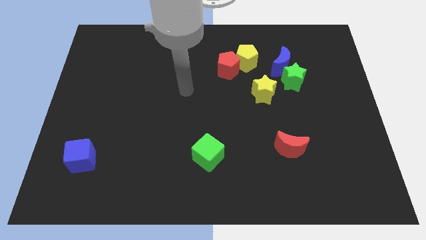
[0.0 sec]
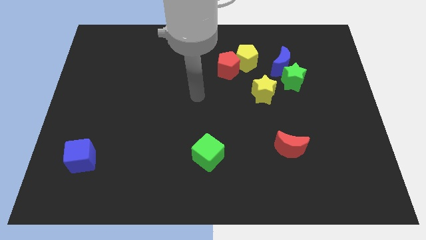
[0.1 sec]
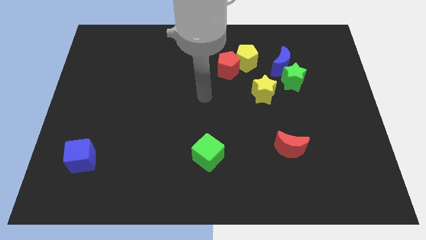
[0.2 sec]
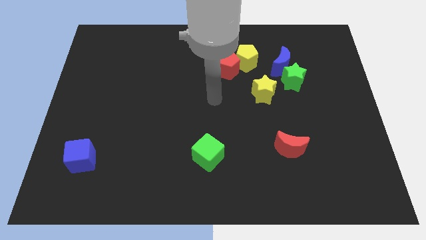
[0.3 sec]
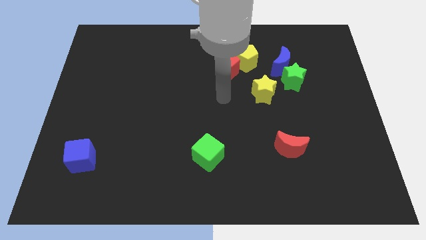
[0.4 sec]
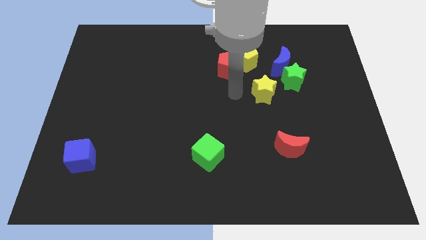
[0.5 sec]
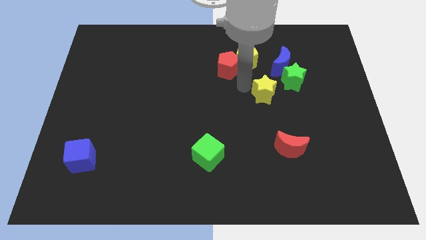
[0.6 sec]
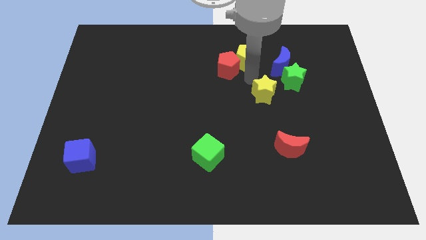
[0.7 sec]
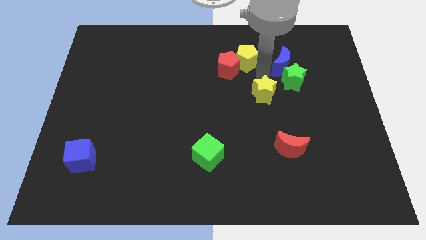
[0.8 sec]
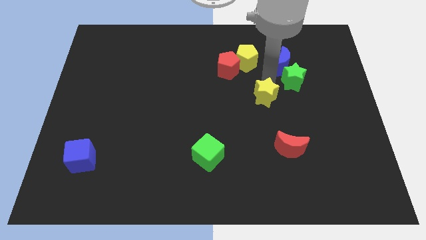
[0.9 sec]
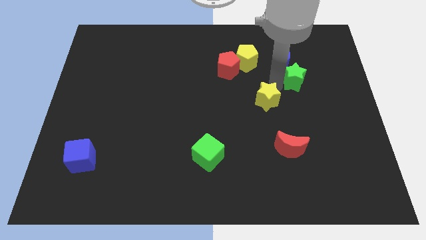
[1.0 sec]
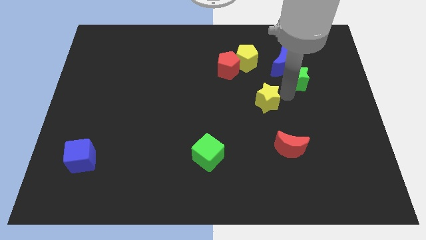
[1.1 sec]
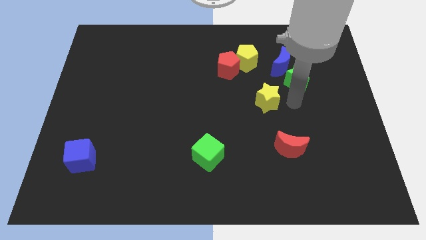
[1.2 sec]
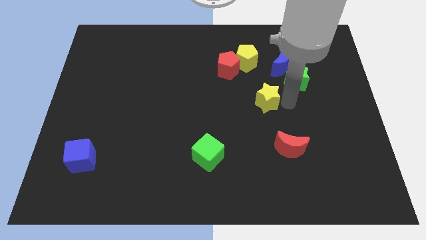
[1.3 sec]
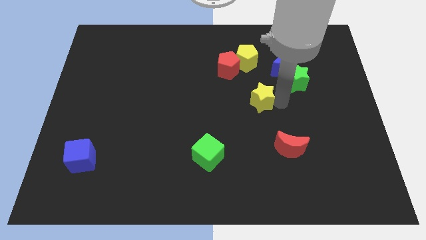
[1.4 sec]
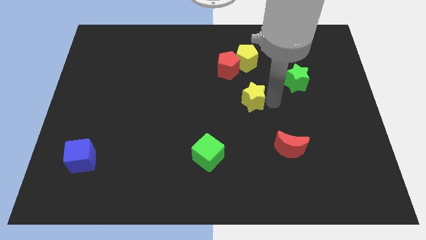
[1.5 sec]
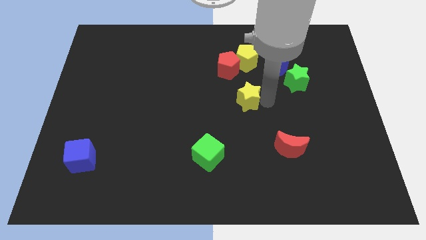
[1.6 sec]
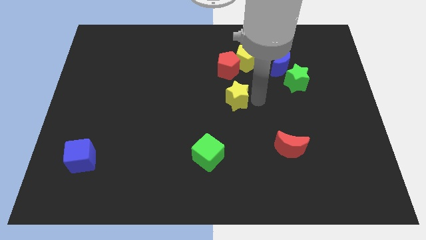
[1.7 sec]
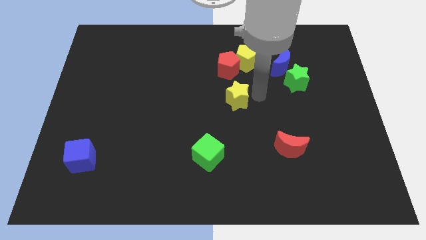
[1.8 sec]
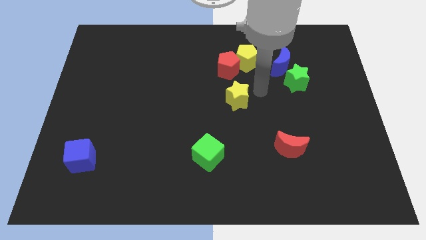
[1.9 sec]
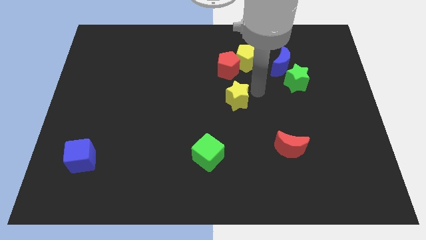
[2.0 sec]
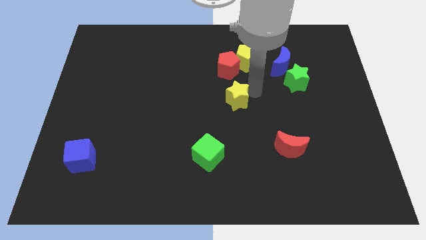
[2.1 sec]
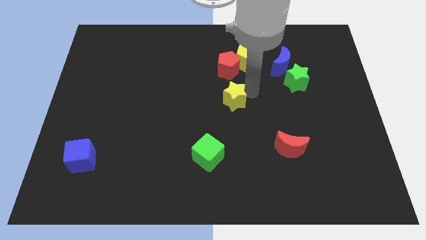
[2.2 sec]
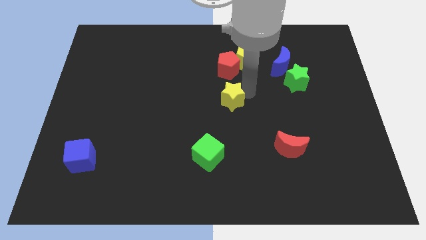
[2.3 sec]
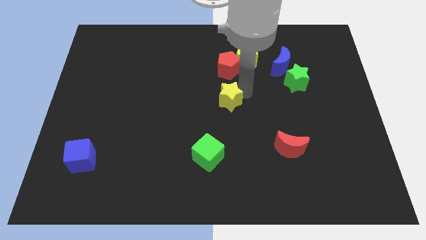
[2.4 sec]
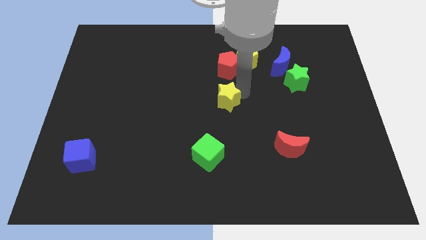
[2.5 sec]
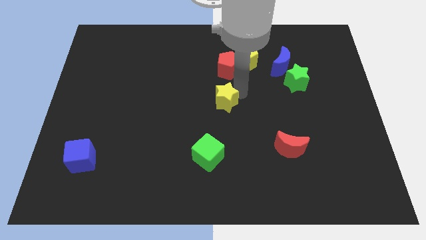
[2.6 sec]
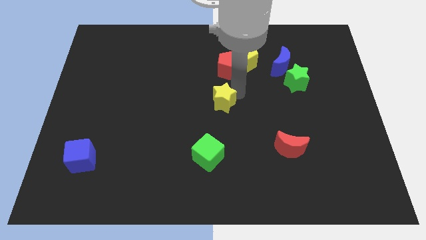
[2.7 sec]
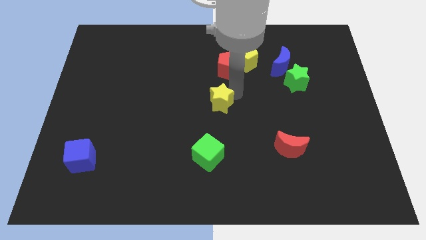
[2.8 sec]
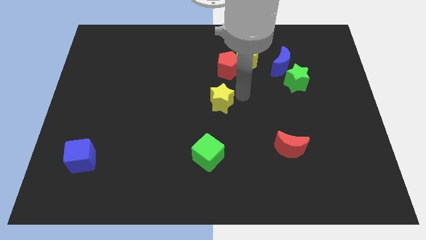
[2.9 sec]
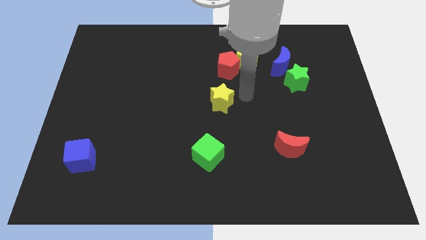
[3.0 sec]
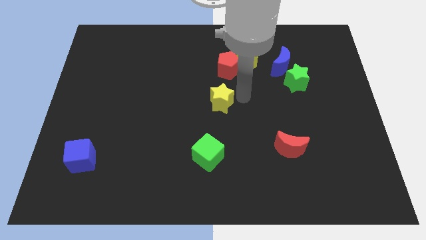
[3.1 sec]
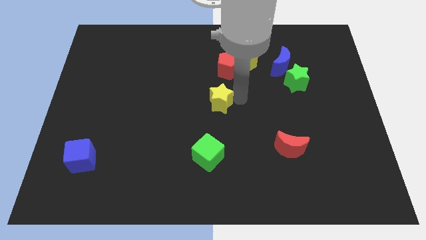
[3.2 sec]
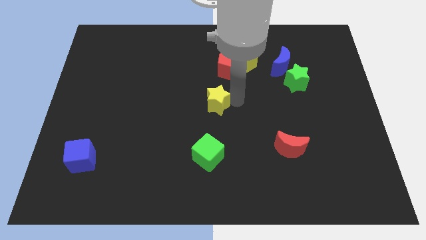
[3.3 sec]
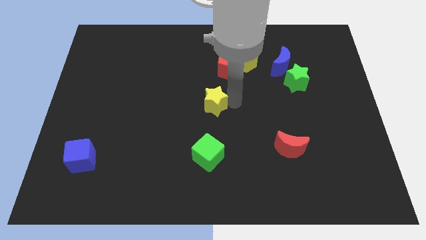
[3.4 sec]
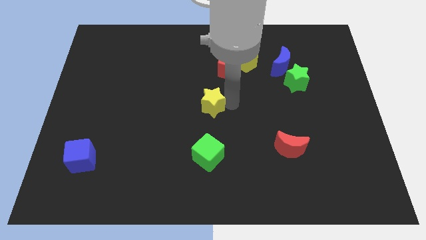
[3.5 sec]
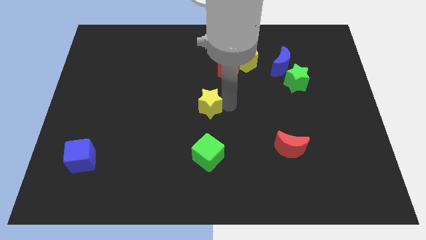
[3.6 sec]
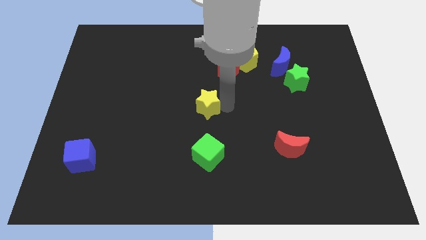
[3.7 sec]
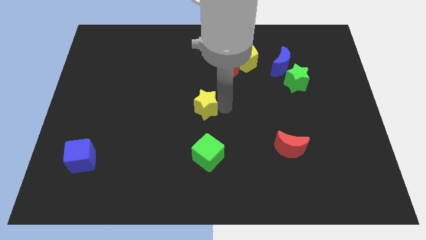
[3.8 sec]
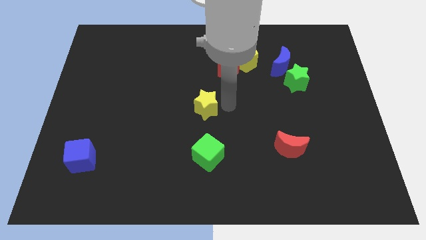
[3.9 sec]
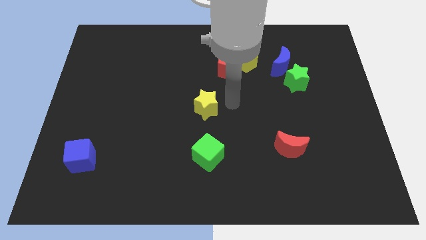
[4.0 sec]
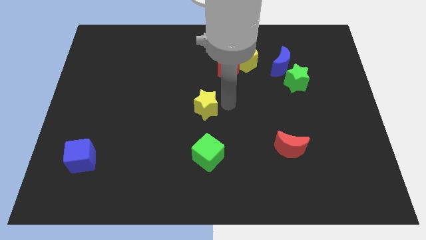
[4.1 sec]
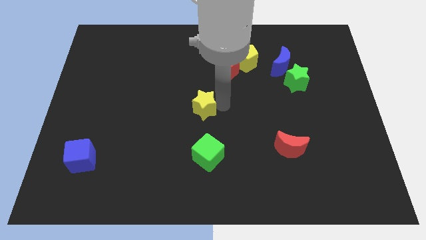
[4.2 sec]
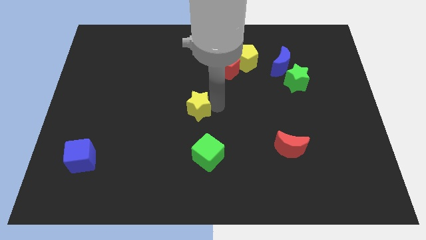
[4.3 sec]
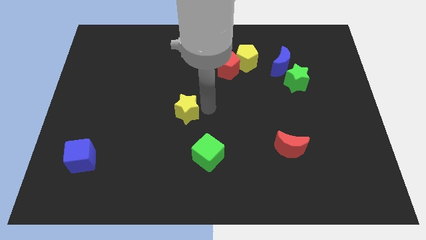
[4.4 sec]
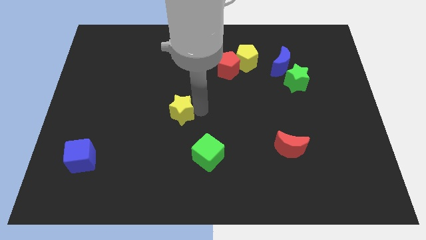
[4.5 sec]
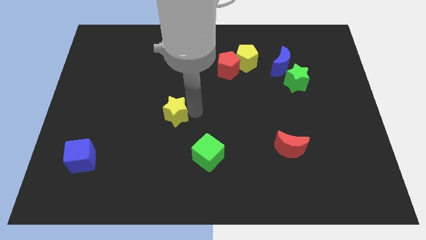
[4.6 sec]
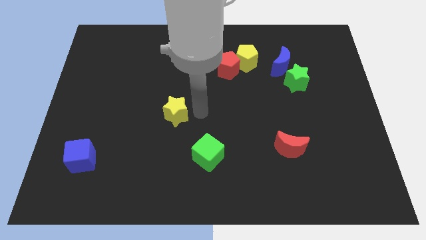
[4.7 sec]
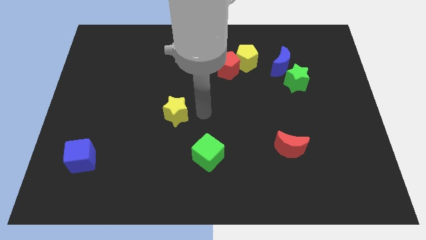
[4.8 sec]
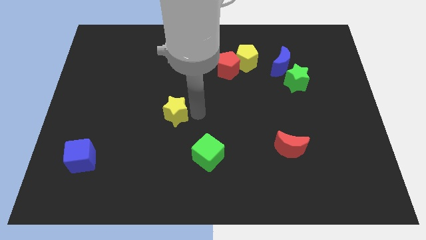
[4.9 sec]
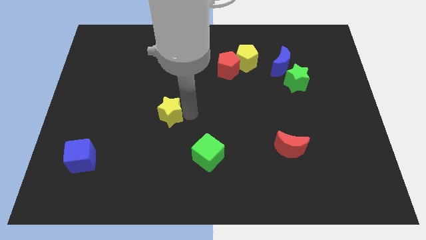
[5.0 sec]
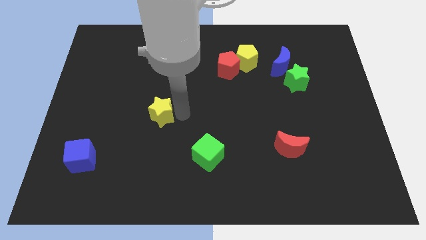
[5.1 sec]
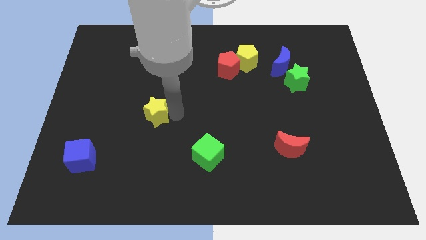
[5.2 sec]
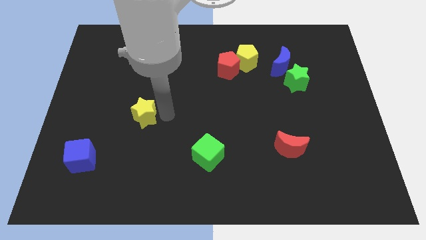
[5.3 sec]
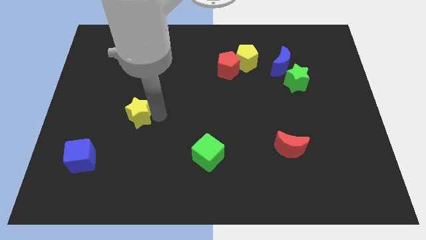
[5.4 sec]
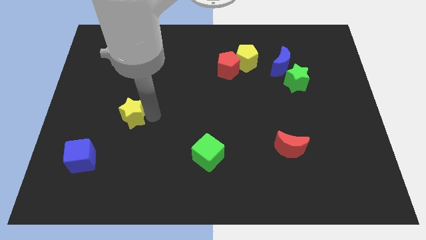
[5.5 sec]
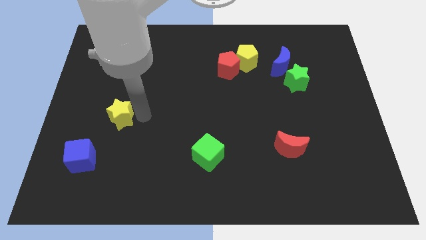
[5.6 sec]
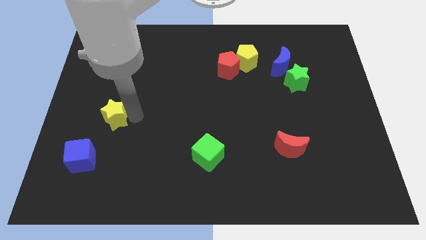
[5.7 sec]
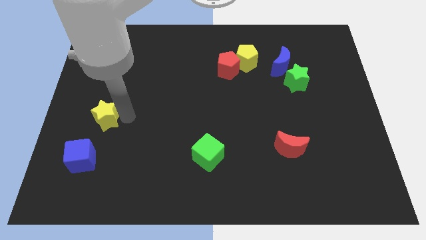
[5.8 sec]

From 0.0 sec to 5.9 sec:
put the yellow star above the blue cube

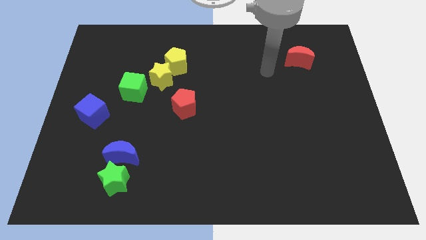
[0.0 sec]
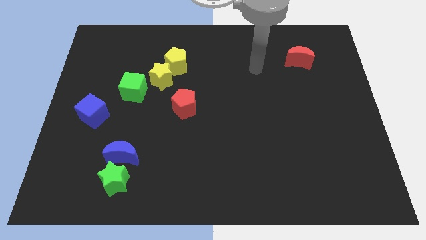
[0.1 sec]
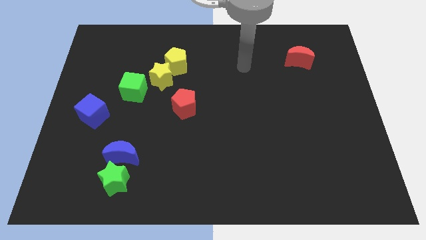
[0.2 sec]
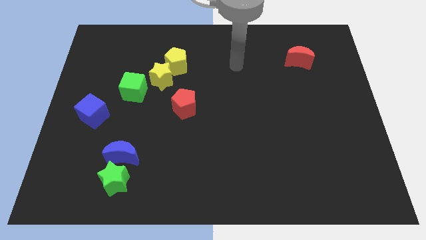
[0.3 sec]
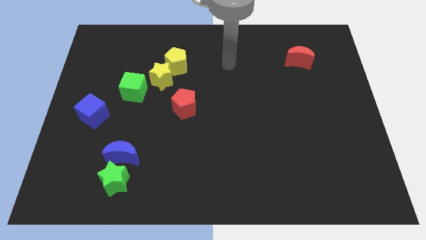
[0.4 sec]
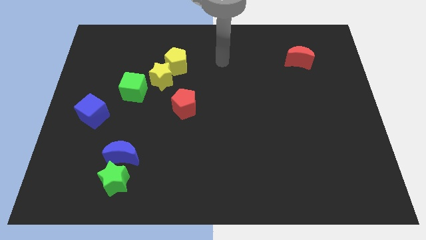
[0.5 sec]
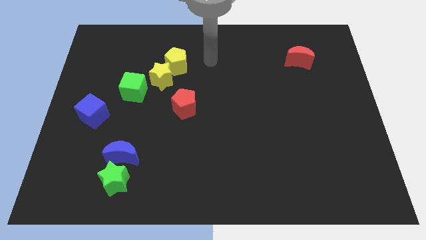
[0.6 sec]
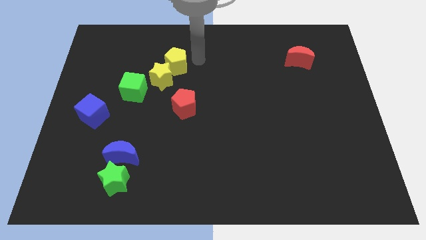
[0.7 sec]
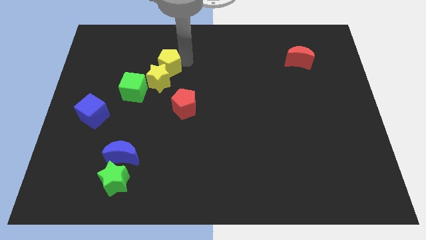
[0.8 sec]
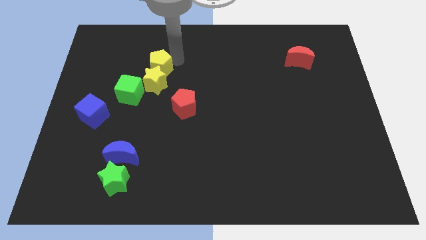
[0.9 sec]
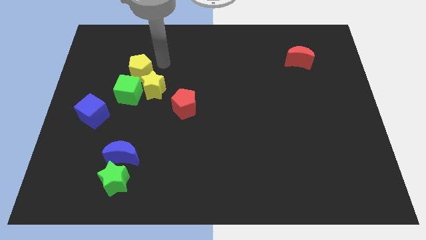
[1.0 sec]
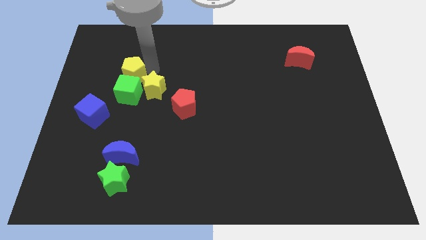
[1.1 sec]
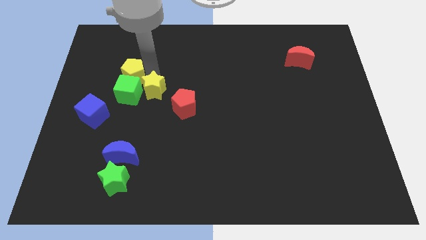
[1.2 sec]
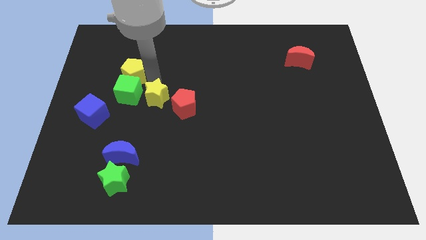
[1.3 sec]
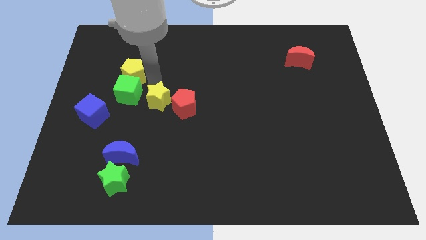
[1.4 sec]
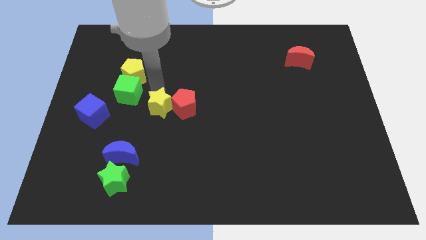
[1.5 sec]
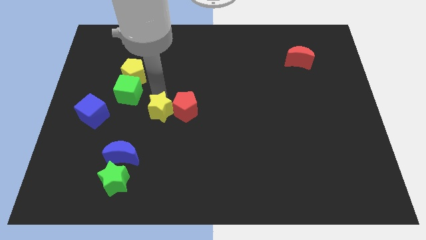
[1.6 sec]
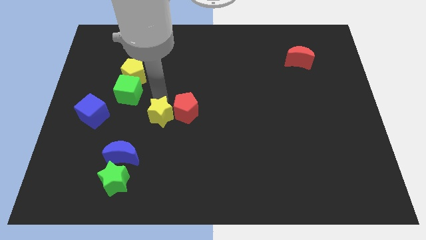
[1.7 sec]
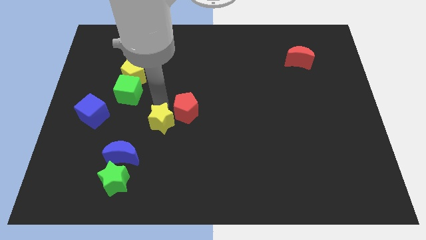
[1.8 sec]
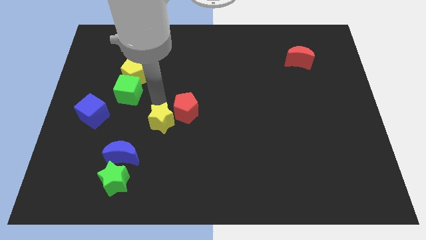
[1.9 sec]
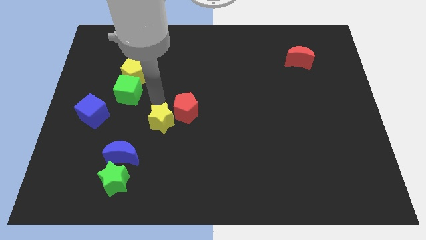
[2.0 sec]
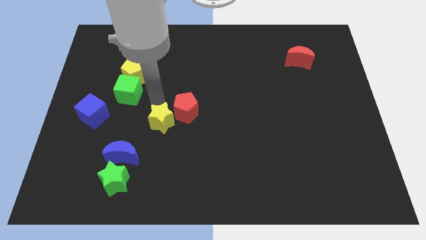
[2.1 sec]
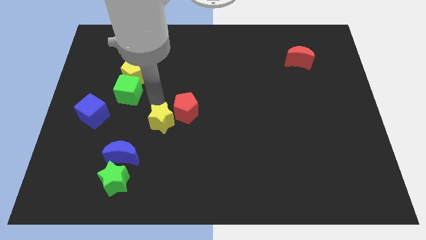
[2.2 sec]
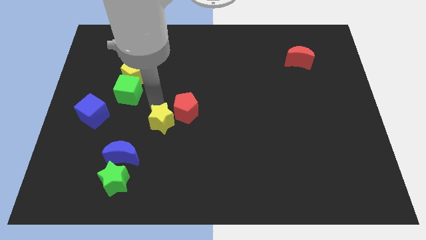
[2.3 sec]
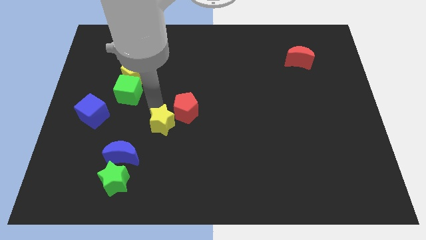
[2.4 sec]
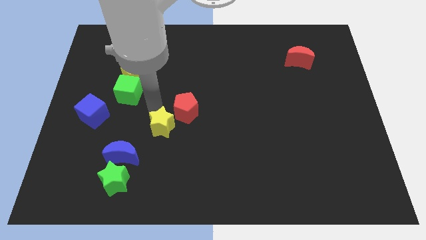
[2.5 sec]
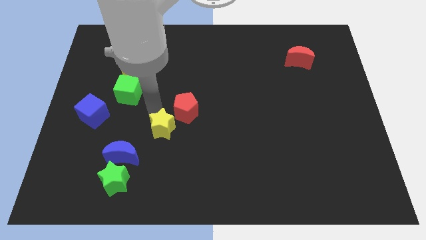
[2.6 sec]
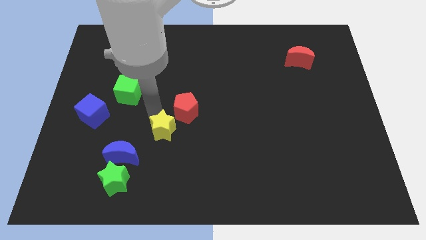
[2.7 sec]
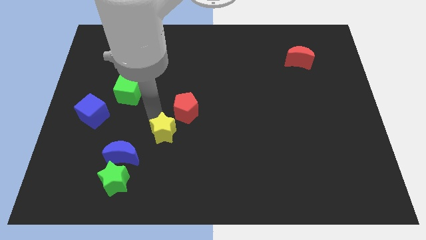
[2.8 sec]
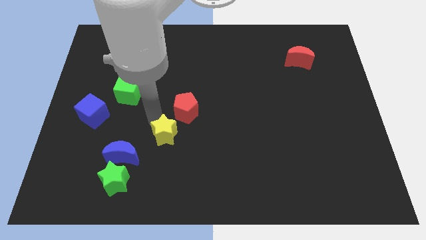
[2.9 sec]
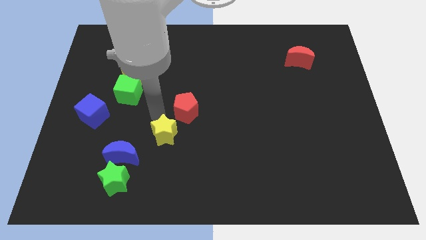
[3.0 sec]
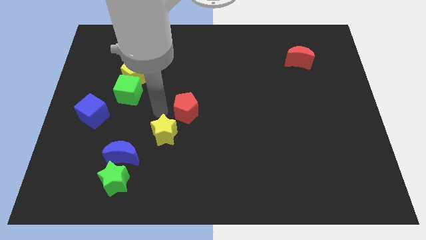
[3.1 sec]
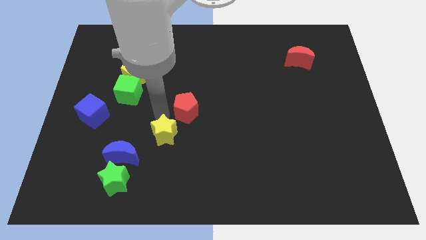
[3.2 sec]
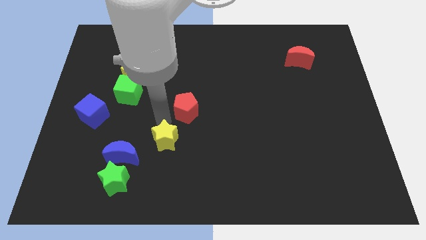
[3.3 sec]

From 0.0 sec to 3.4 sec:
slide the yellow star to the right of the blue moon
